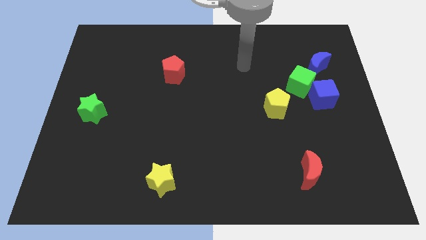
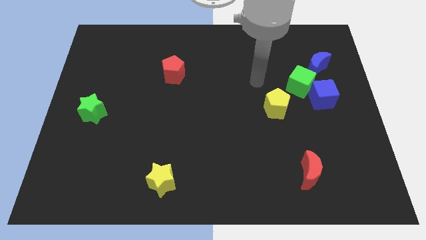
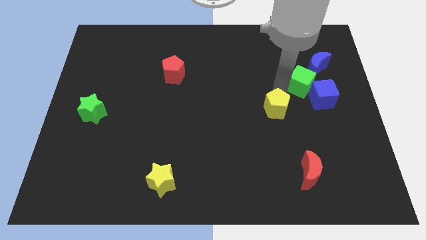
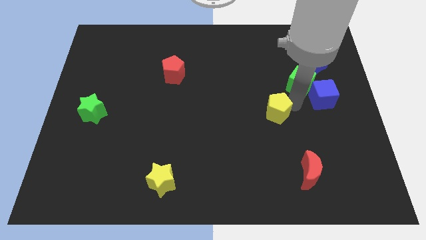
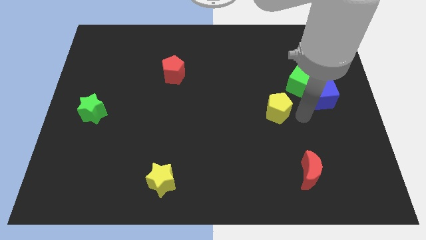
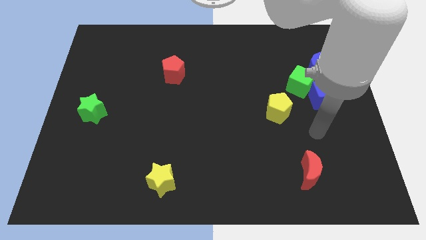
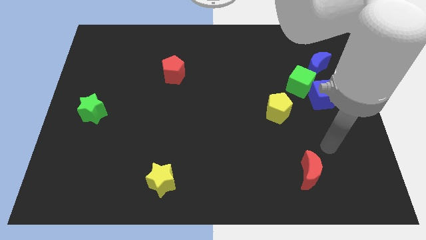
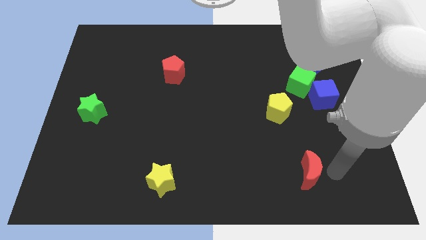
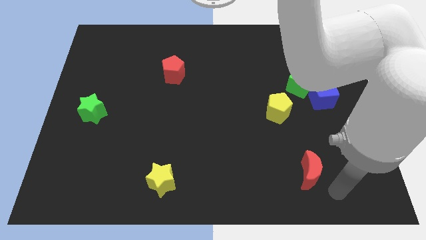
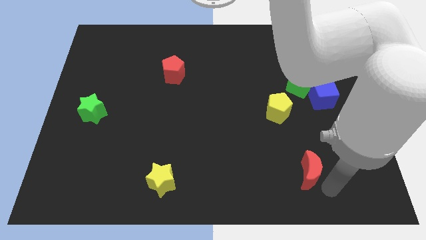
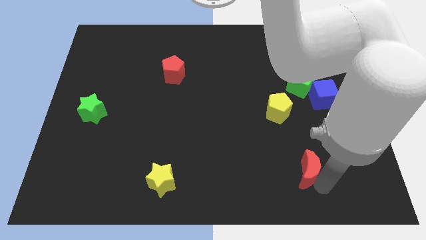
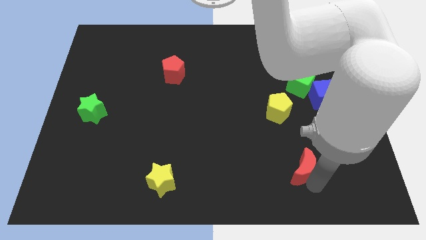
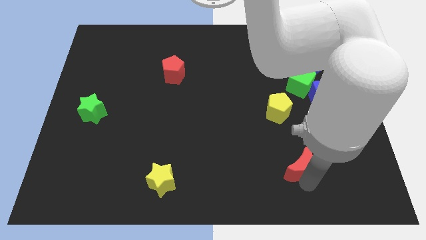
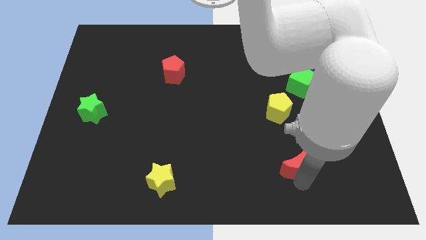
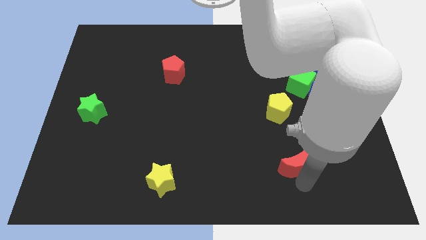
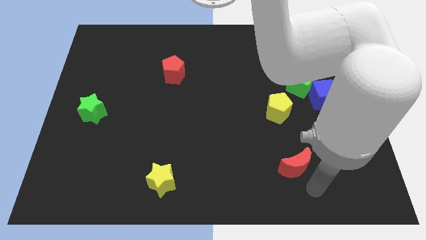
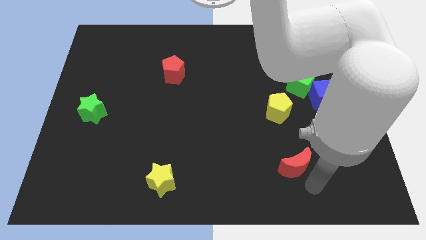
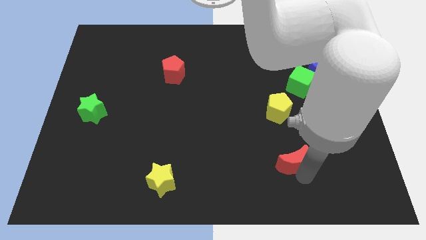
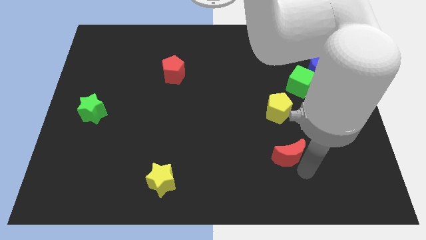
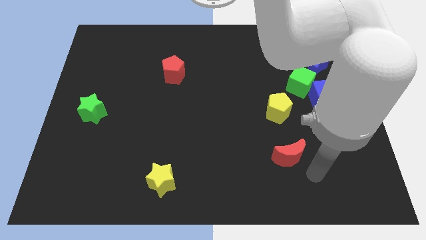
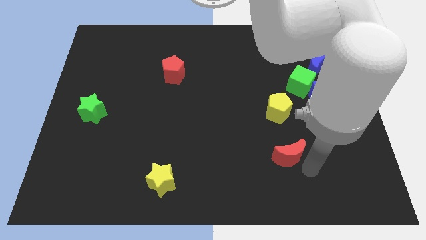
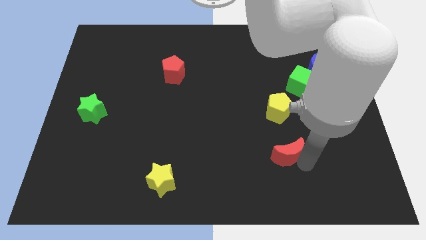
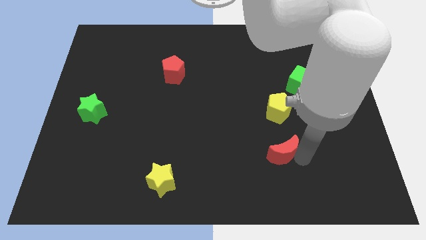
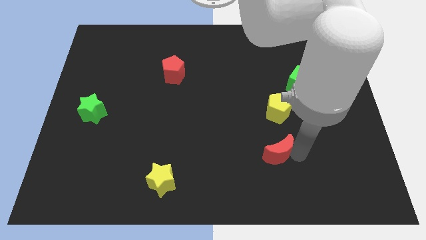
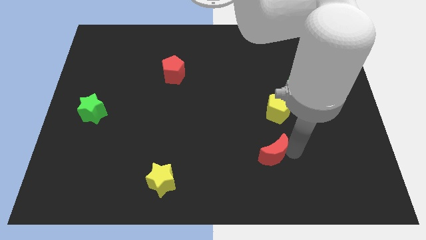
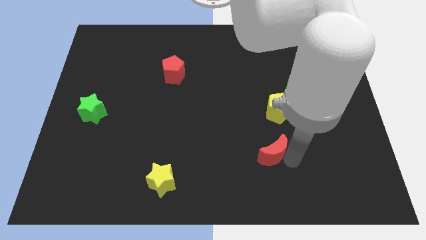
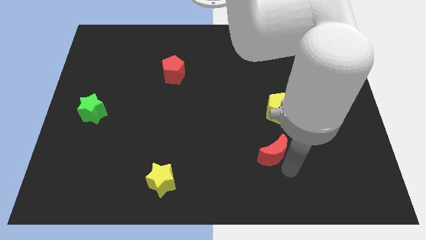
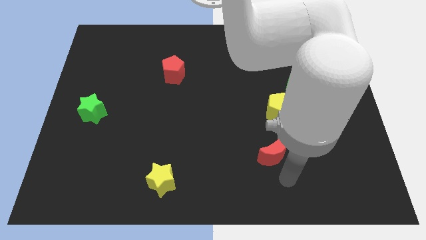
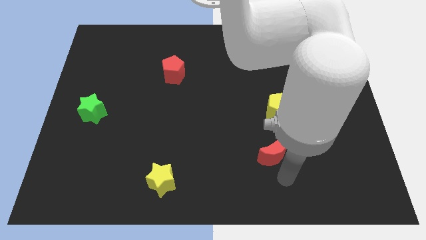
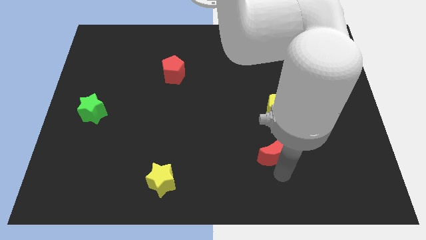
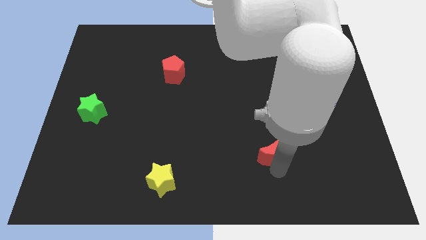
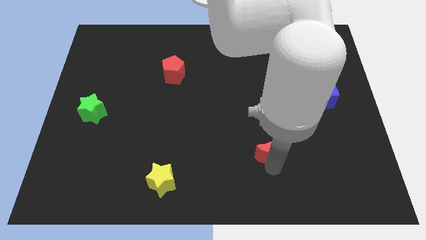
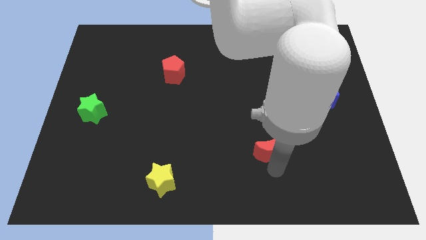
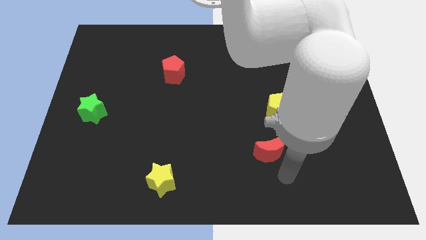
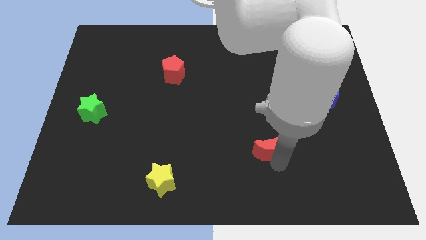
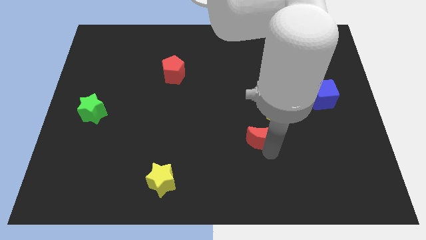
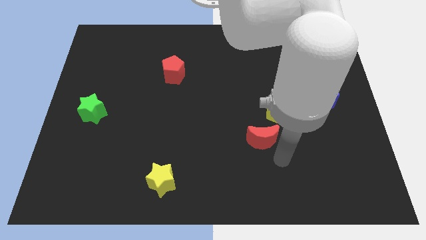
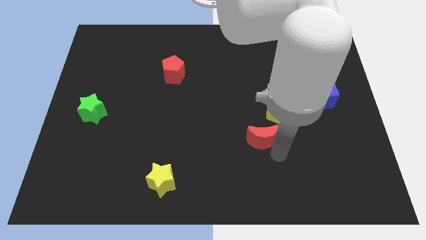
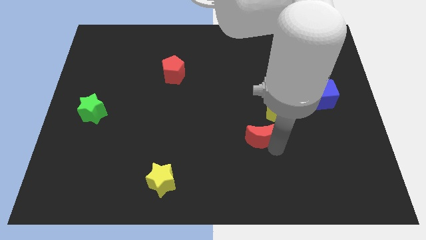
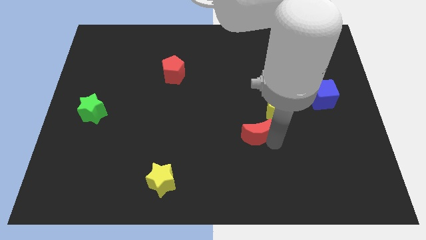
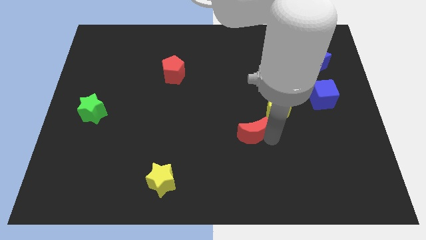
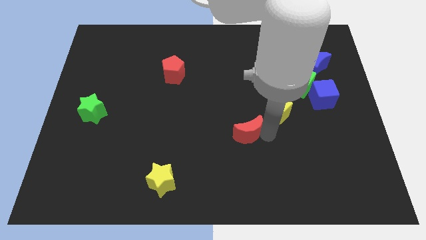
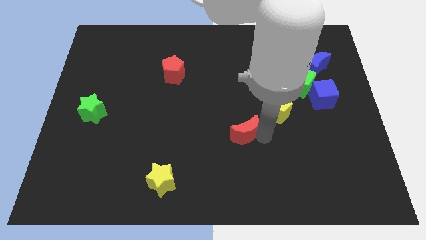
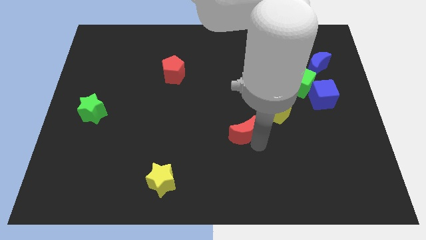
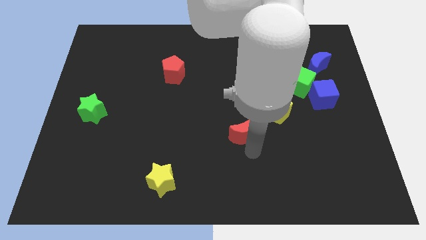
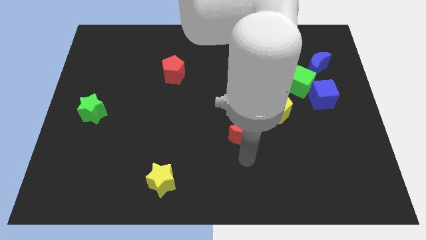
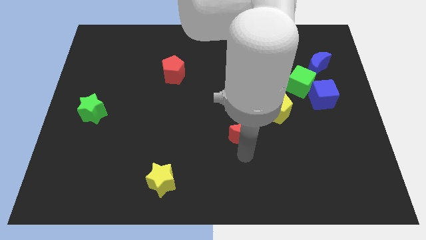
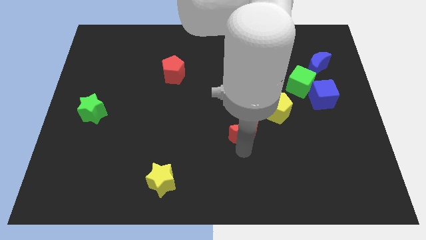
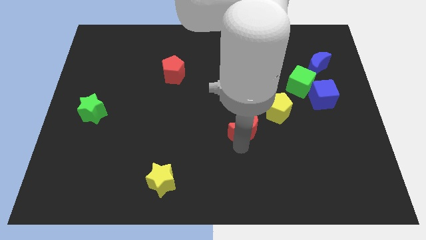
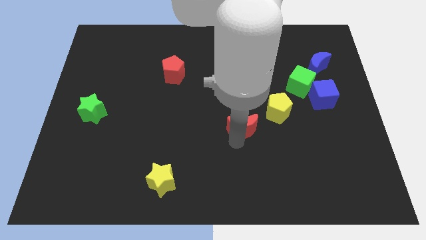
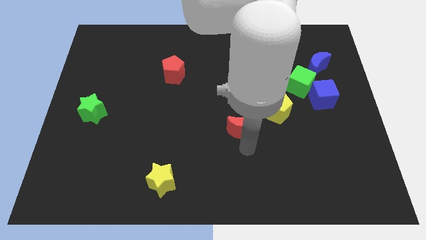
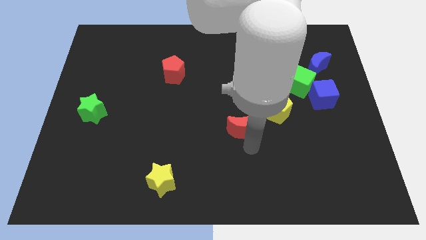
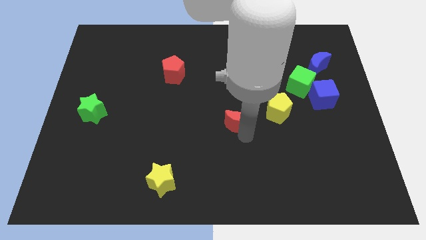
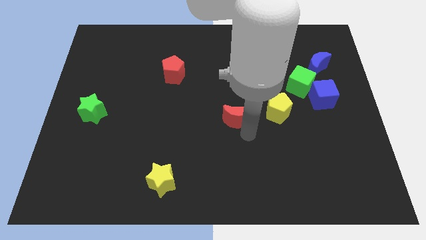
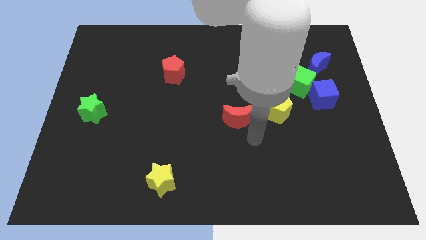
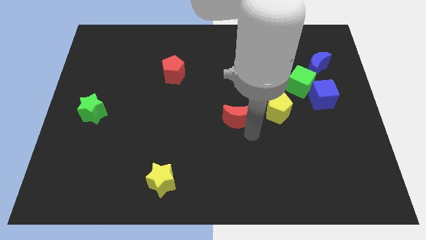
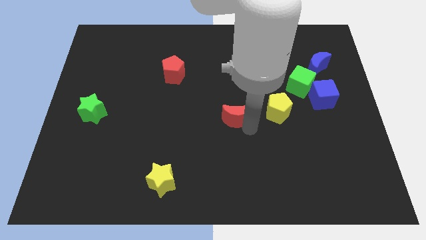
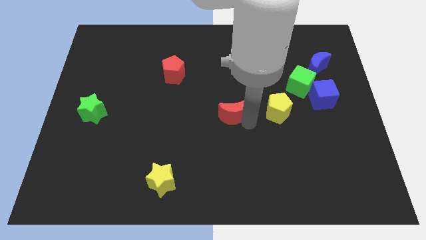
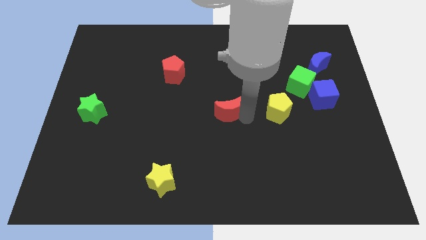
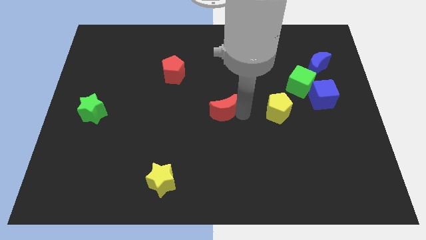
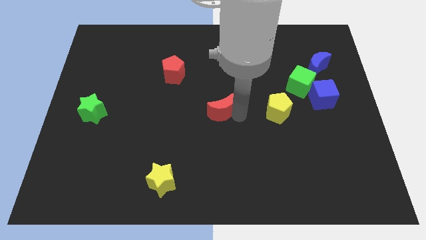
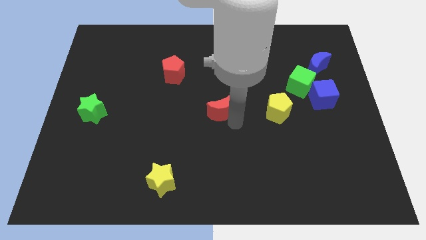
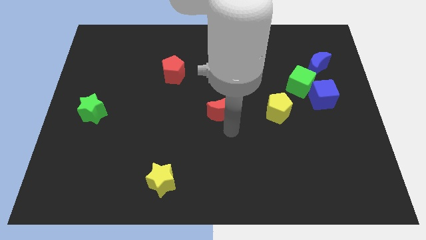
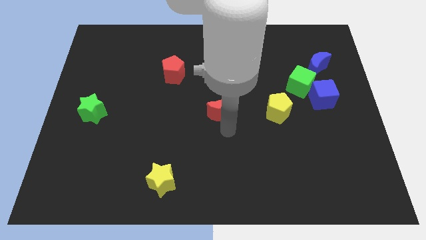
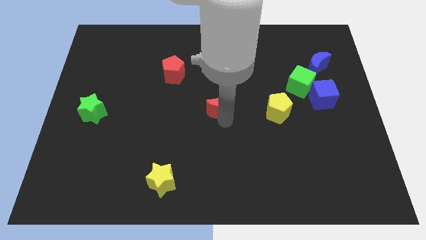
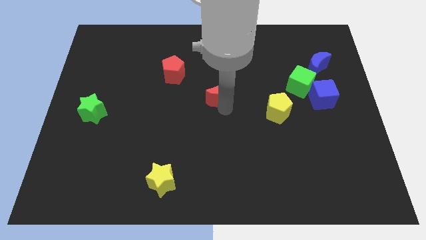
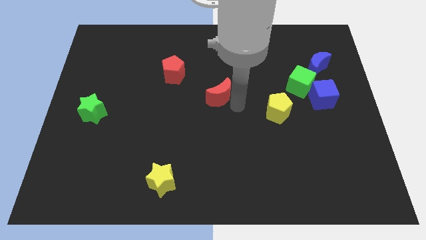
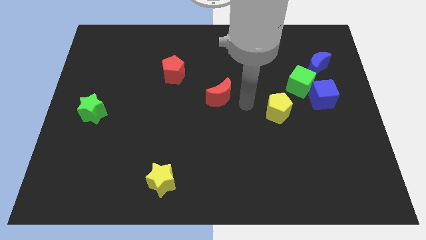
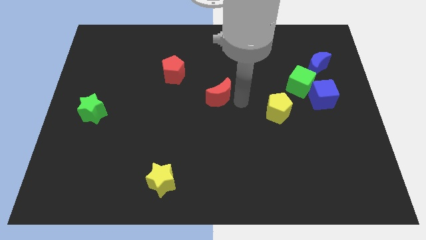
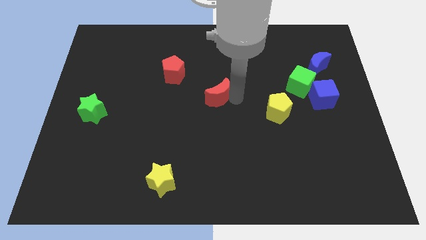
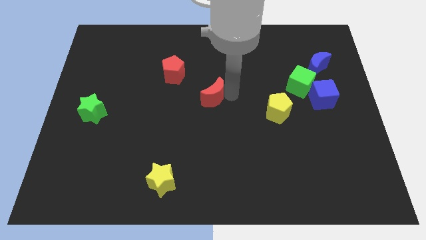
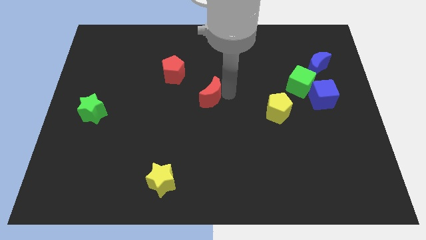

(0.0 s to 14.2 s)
push the red moon to the bottom right of the red pentagon

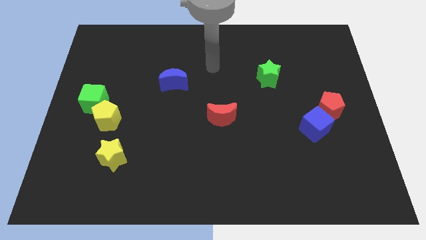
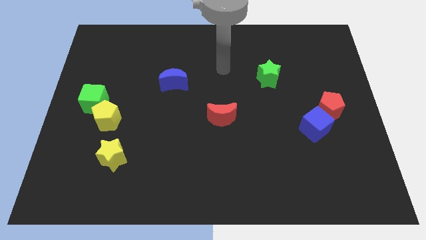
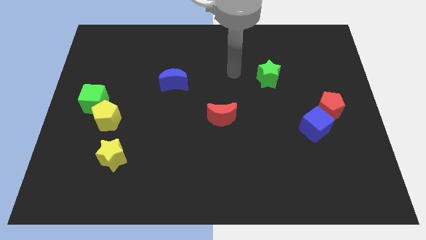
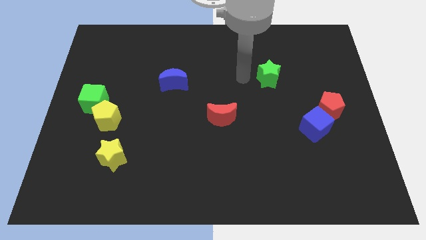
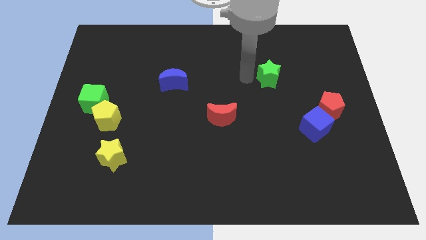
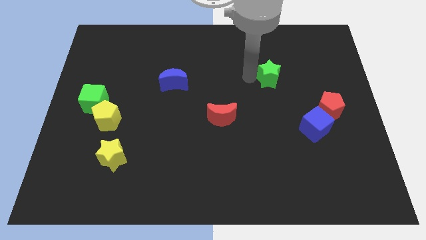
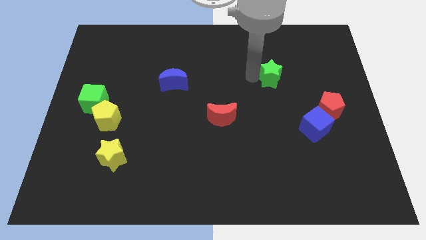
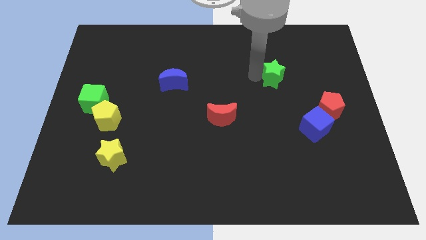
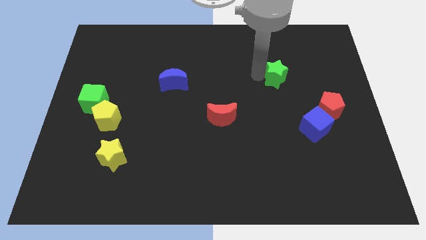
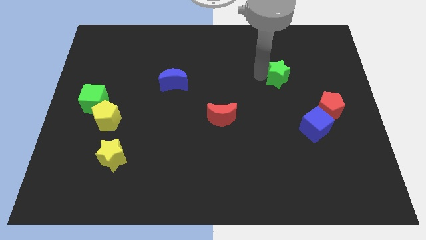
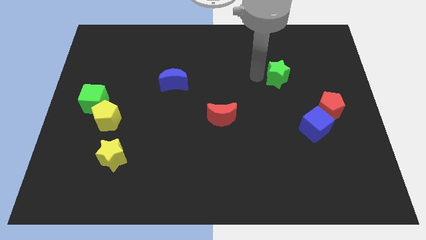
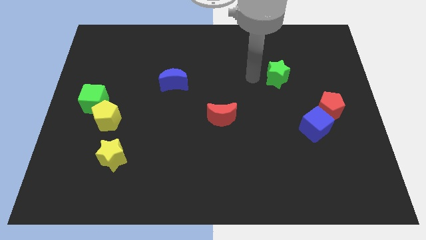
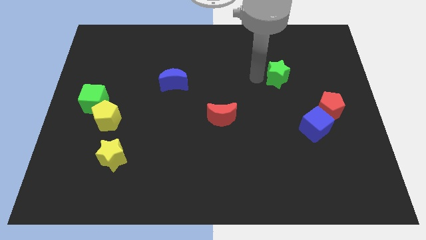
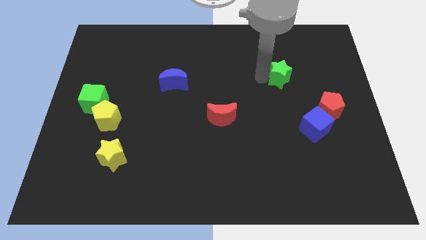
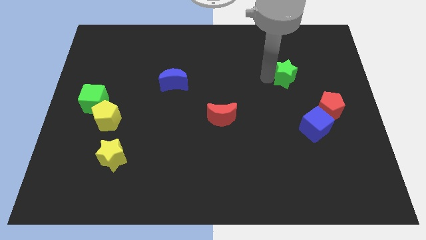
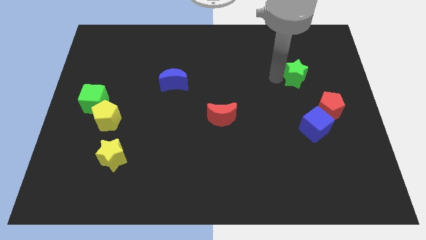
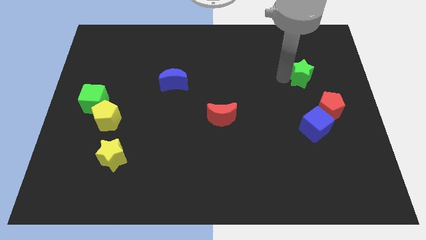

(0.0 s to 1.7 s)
put the green star above the red pentagon
